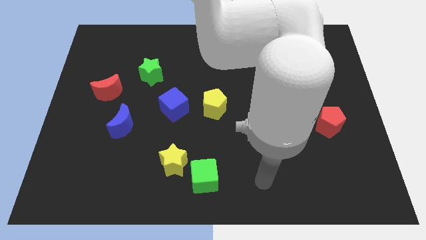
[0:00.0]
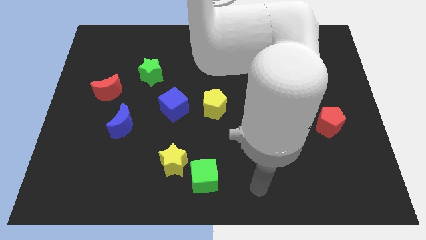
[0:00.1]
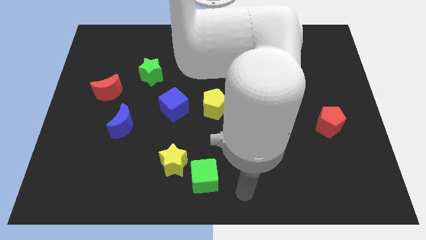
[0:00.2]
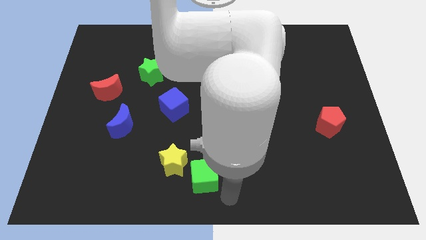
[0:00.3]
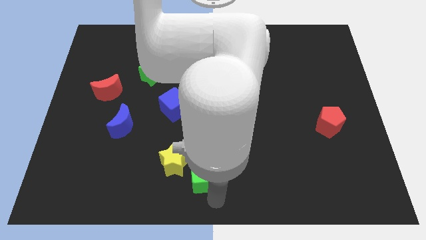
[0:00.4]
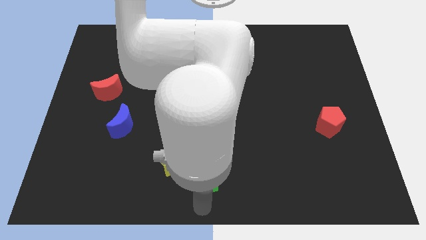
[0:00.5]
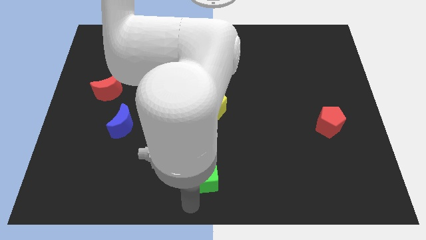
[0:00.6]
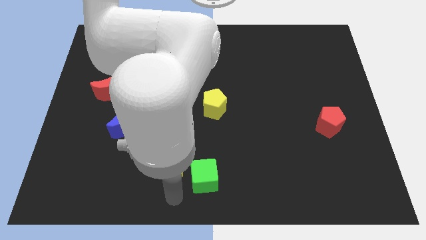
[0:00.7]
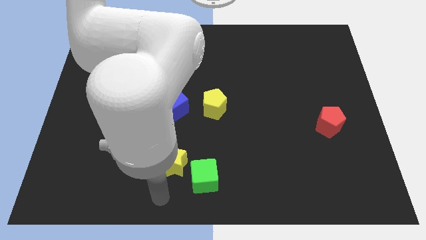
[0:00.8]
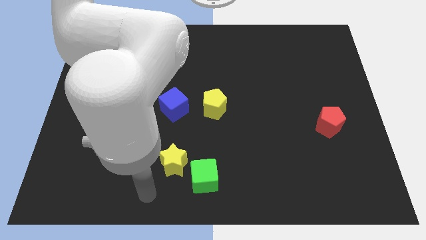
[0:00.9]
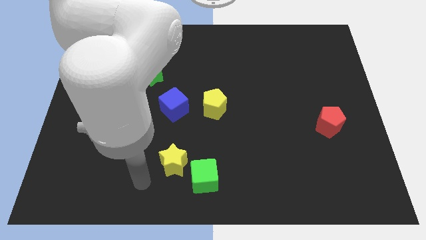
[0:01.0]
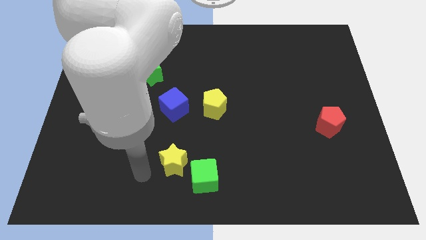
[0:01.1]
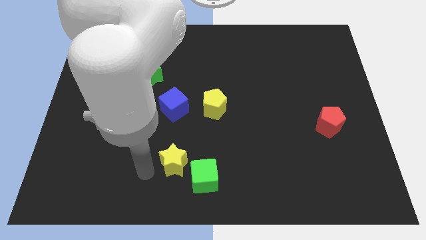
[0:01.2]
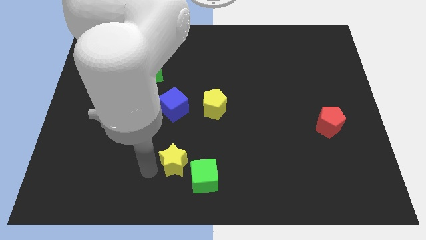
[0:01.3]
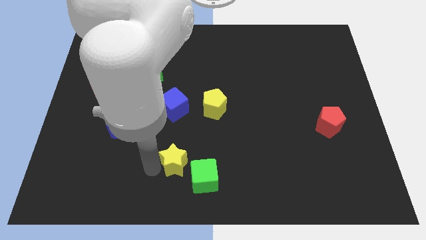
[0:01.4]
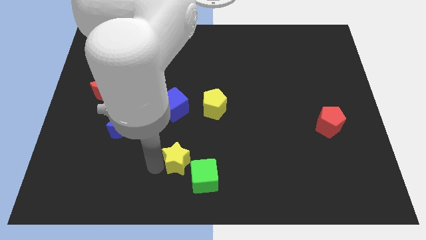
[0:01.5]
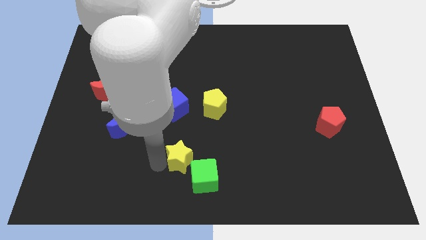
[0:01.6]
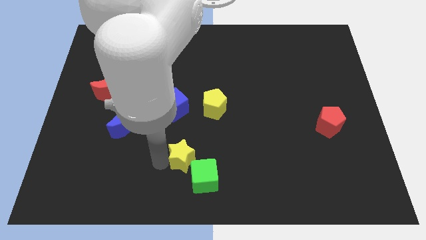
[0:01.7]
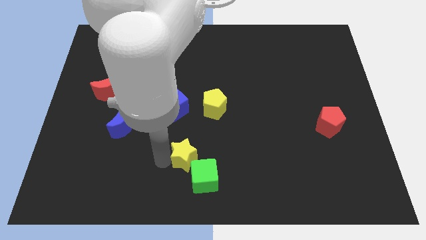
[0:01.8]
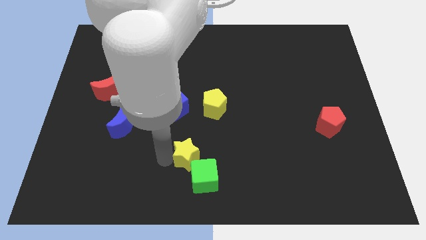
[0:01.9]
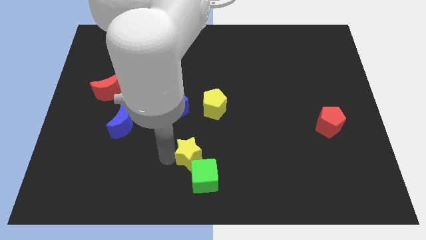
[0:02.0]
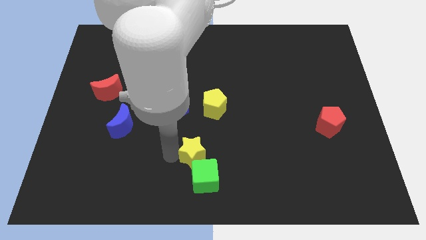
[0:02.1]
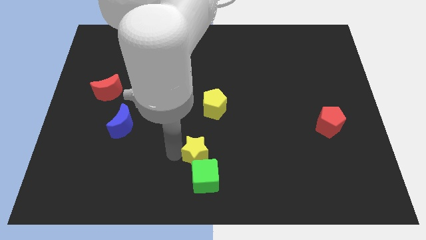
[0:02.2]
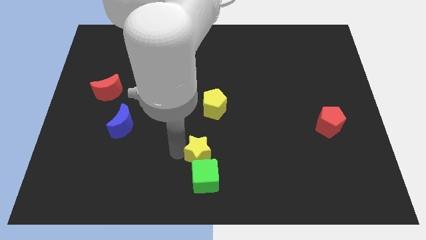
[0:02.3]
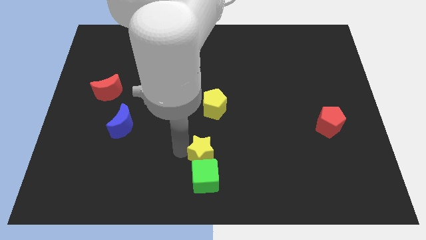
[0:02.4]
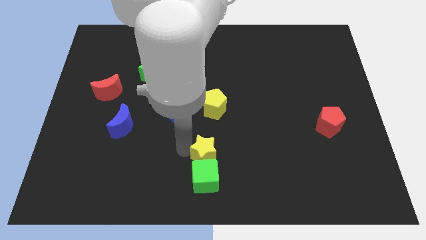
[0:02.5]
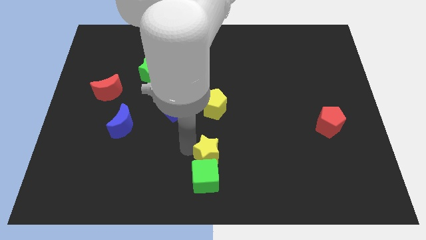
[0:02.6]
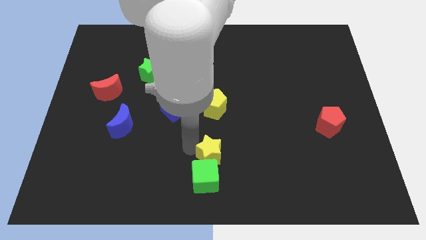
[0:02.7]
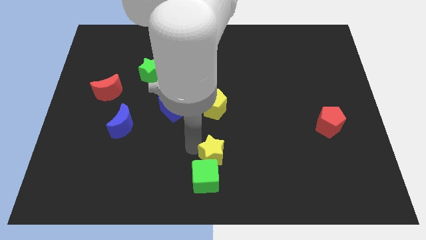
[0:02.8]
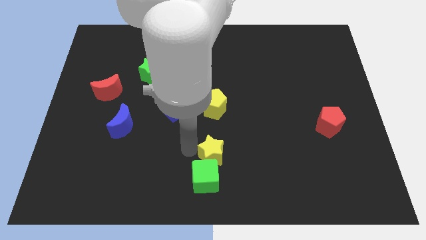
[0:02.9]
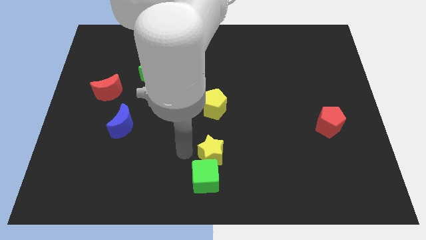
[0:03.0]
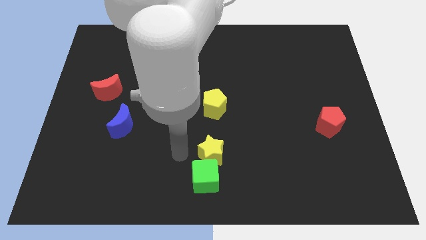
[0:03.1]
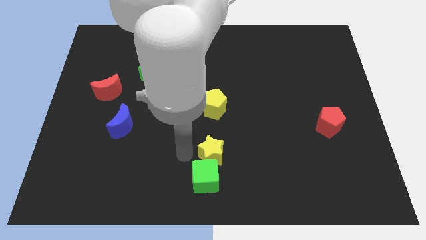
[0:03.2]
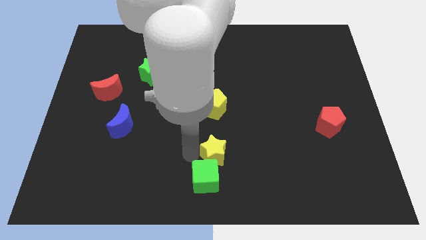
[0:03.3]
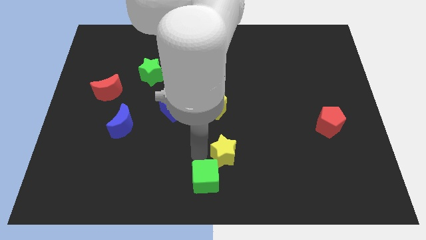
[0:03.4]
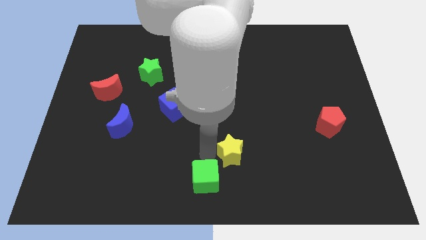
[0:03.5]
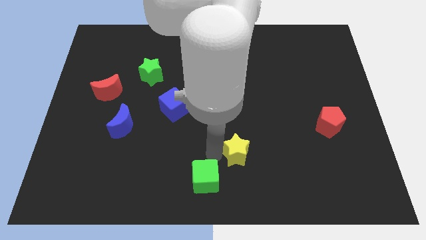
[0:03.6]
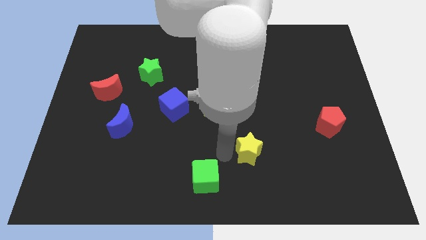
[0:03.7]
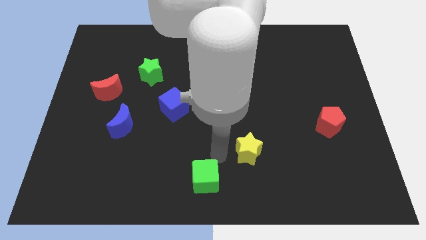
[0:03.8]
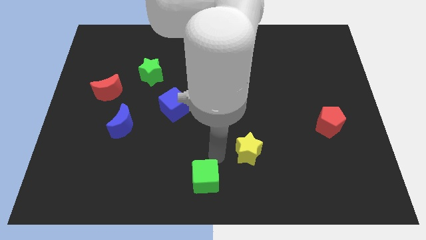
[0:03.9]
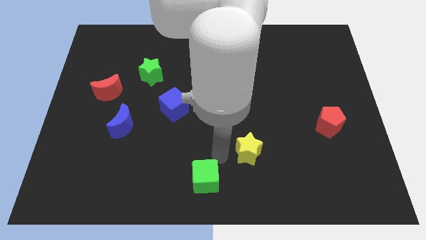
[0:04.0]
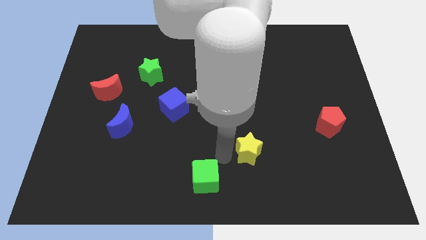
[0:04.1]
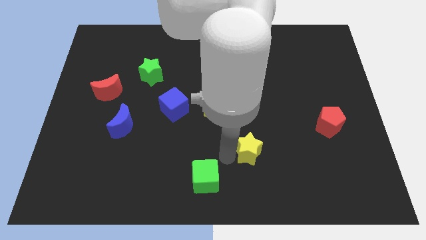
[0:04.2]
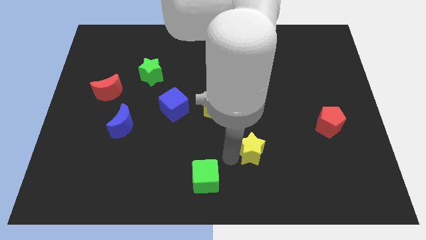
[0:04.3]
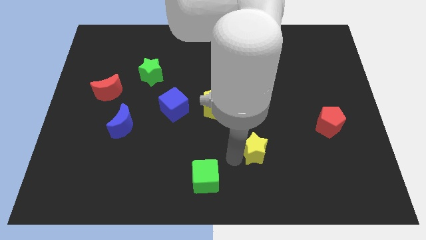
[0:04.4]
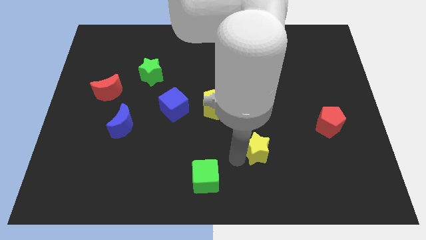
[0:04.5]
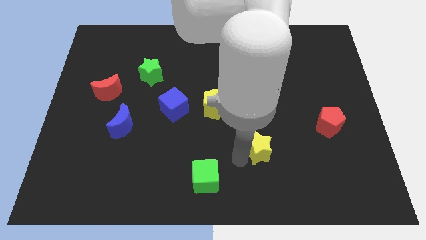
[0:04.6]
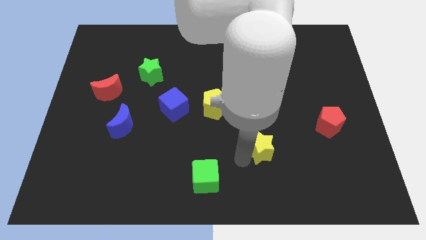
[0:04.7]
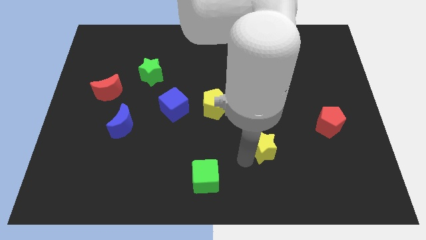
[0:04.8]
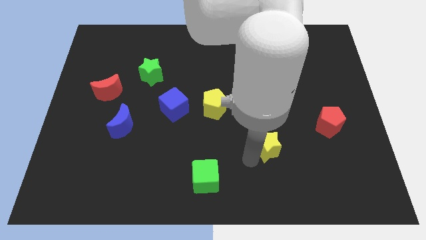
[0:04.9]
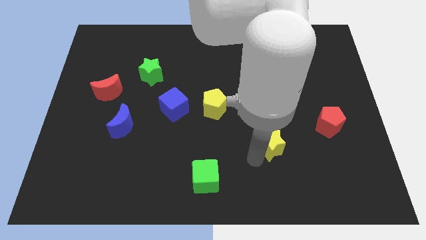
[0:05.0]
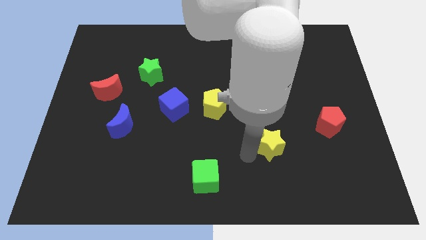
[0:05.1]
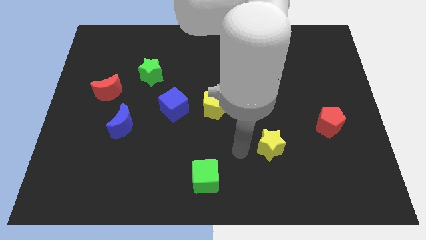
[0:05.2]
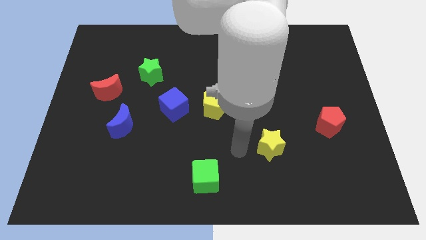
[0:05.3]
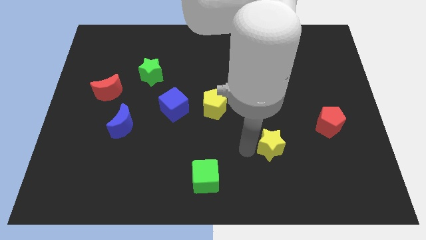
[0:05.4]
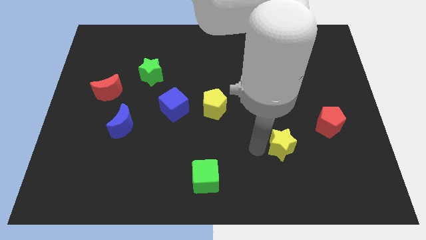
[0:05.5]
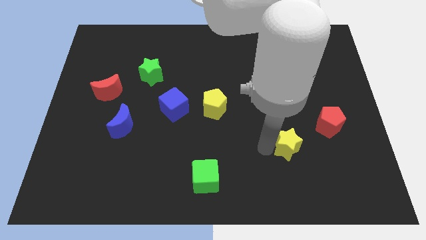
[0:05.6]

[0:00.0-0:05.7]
move the yellow star to the bottom left side of the red pentagon

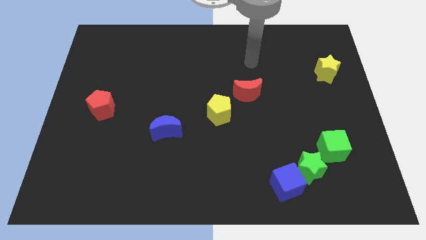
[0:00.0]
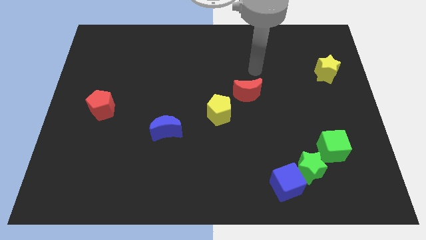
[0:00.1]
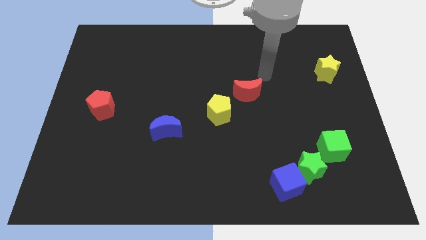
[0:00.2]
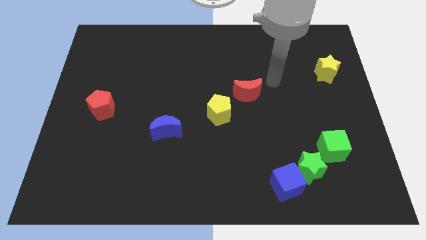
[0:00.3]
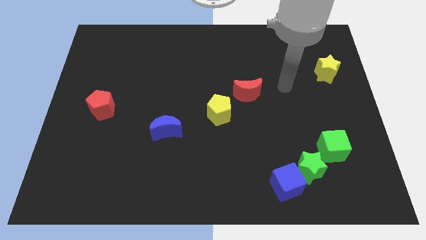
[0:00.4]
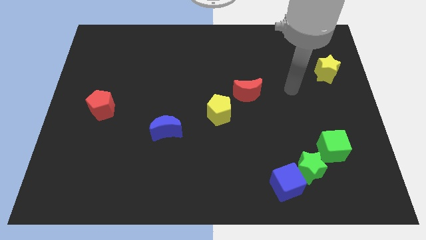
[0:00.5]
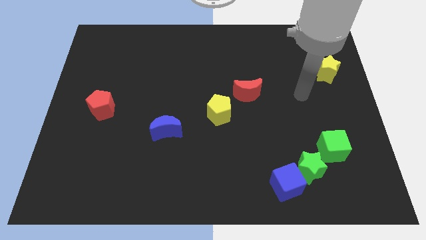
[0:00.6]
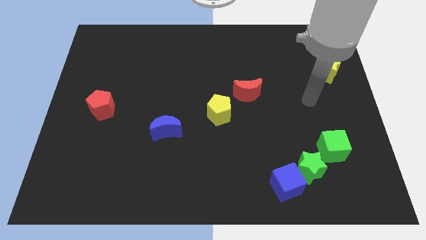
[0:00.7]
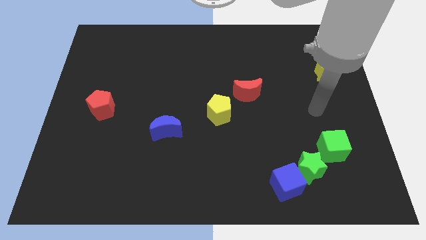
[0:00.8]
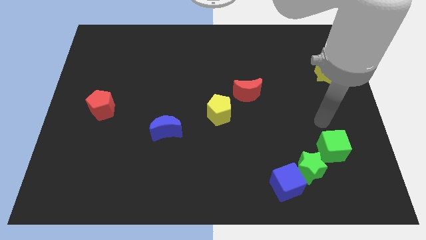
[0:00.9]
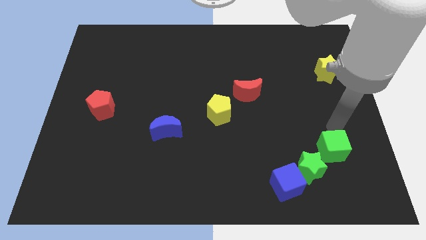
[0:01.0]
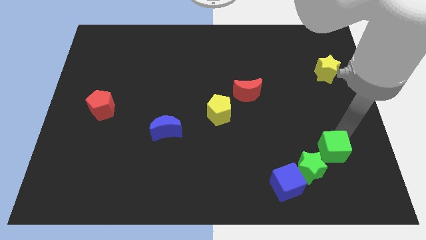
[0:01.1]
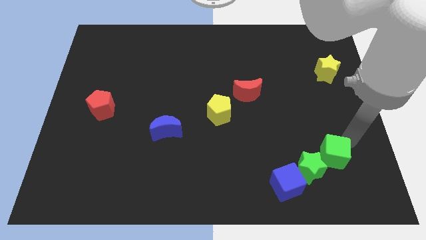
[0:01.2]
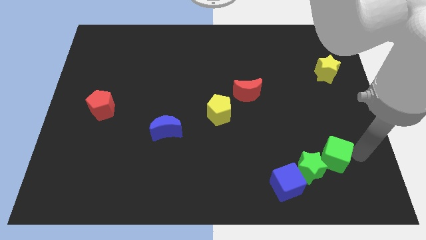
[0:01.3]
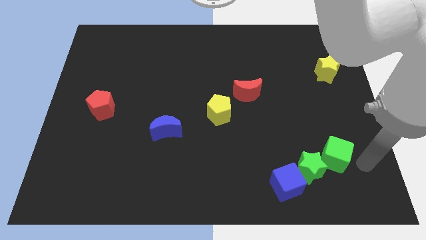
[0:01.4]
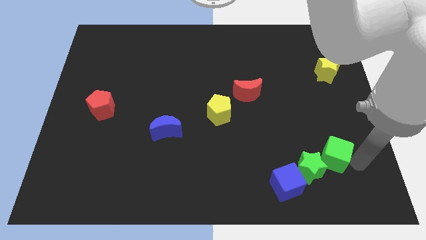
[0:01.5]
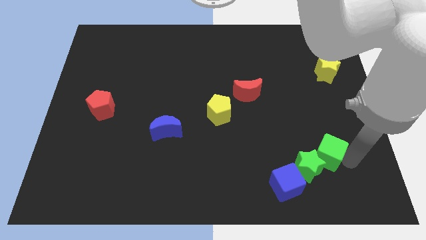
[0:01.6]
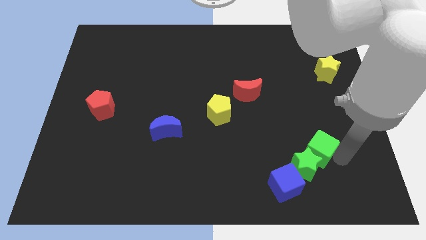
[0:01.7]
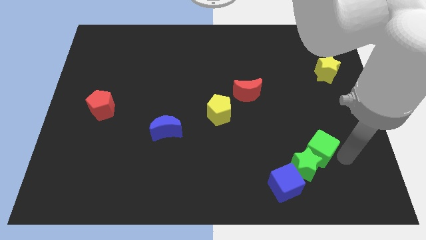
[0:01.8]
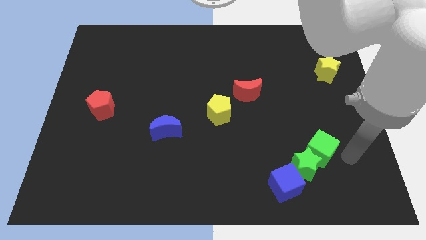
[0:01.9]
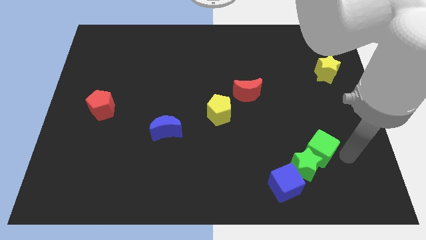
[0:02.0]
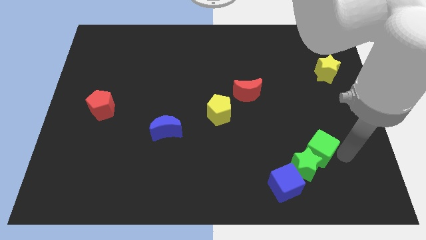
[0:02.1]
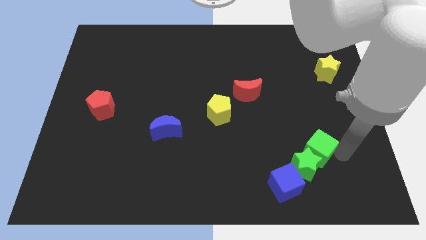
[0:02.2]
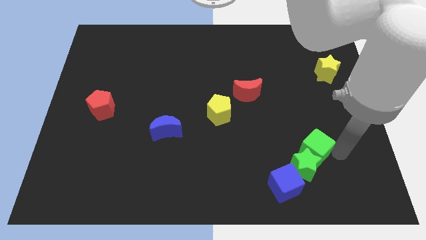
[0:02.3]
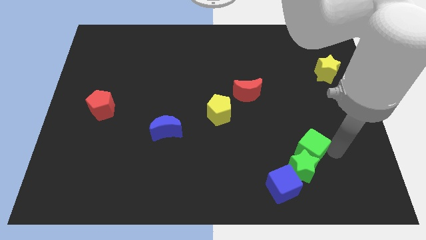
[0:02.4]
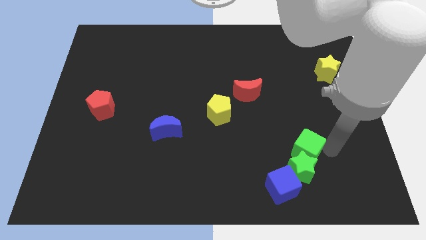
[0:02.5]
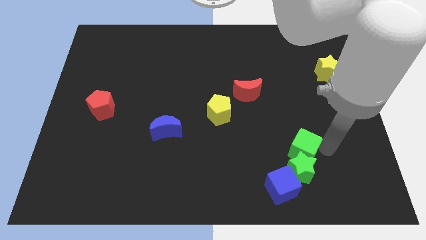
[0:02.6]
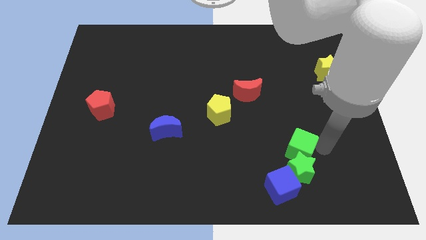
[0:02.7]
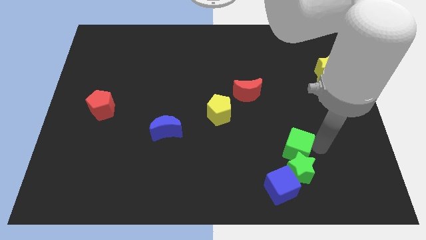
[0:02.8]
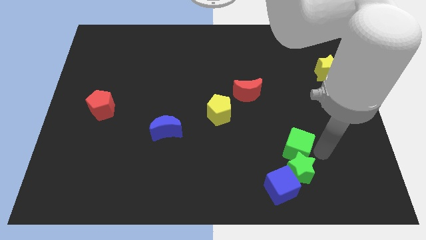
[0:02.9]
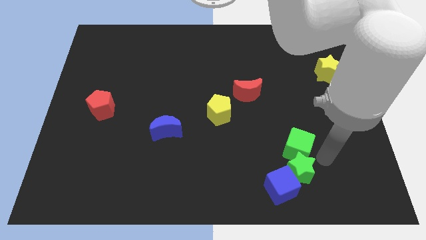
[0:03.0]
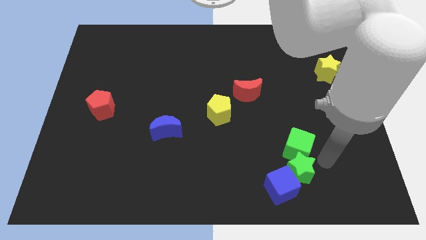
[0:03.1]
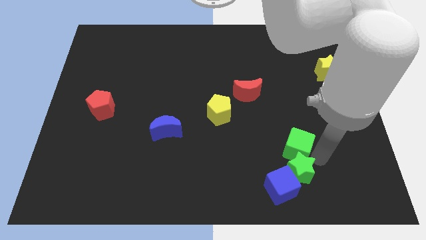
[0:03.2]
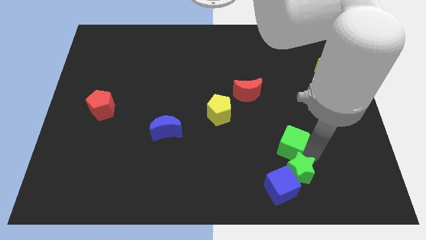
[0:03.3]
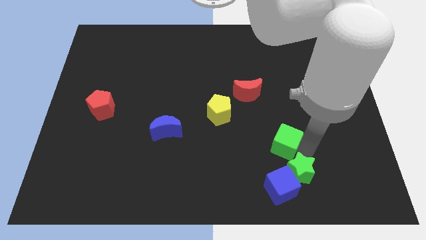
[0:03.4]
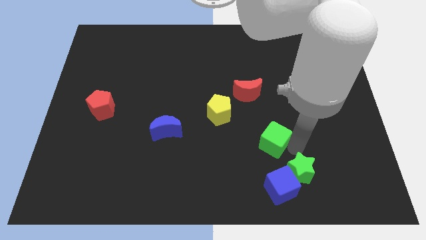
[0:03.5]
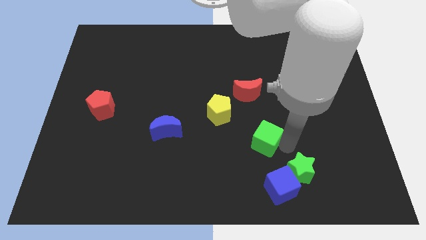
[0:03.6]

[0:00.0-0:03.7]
move the green cube to the bottom of the red moon
